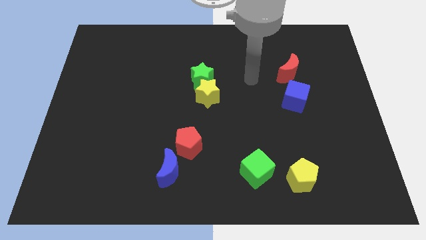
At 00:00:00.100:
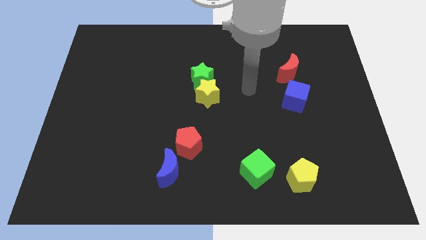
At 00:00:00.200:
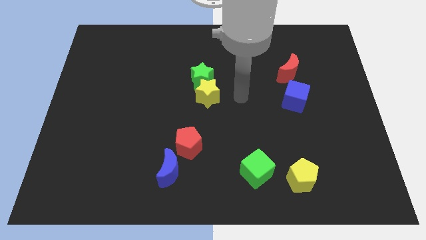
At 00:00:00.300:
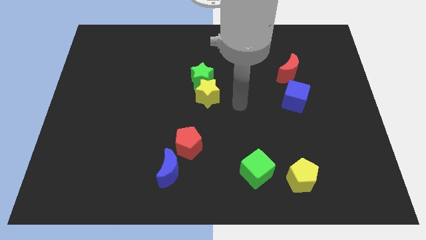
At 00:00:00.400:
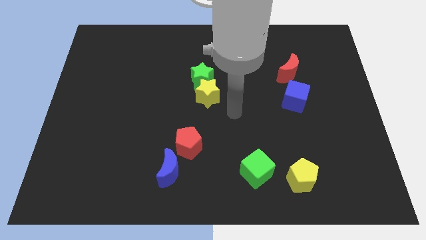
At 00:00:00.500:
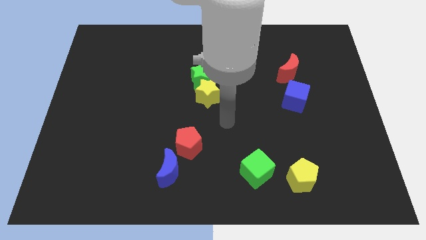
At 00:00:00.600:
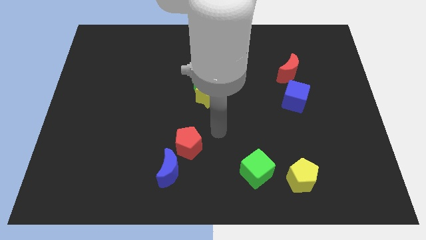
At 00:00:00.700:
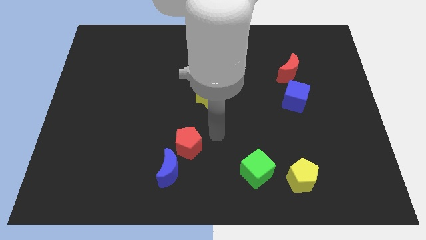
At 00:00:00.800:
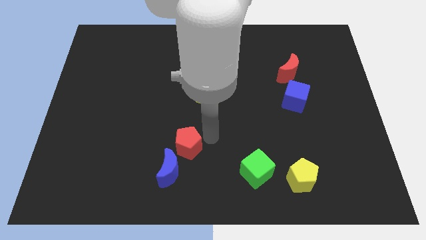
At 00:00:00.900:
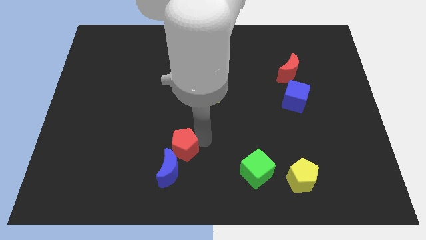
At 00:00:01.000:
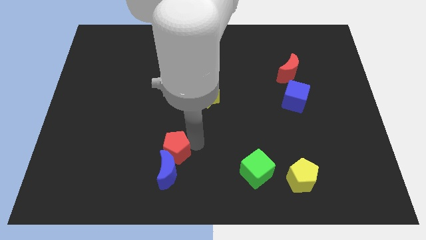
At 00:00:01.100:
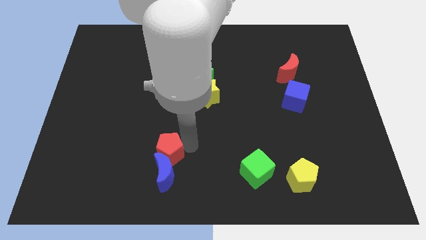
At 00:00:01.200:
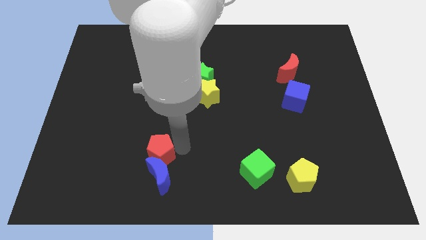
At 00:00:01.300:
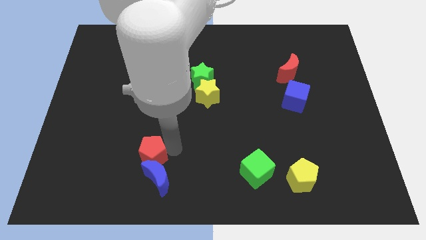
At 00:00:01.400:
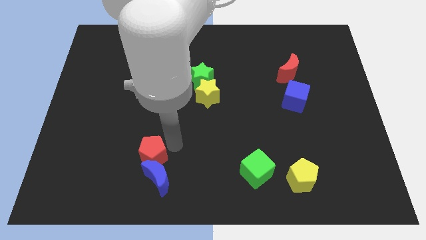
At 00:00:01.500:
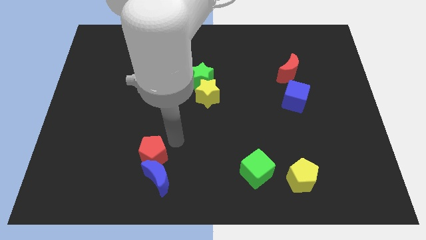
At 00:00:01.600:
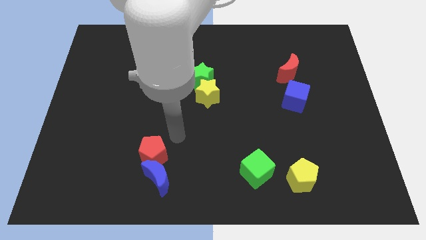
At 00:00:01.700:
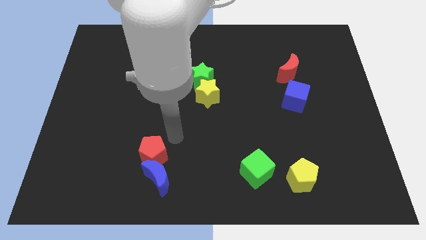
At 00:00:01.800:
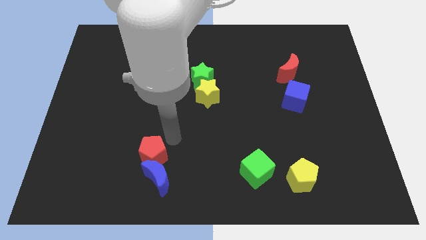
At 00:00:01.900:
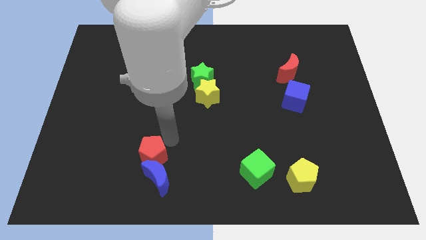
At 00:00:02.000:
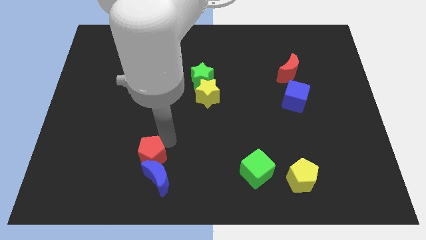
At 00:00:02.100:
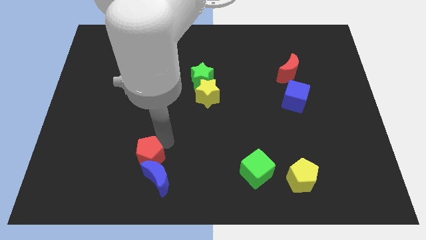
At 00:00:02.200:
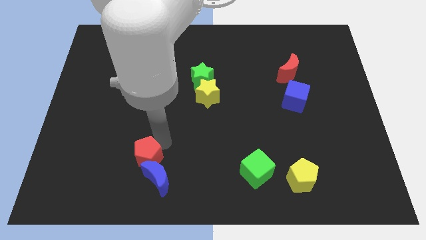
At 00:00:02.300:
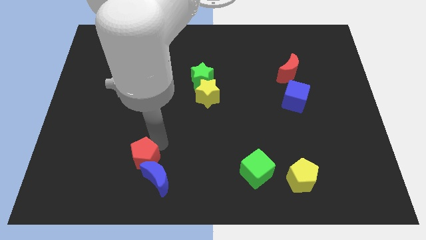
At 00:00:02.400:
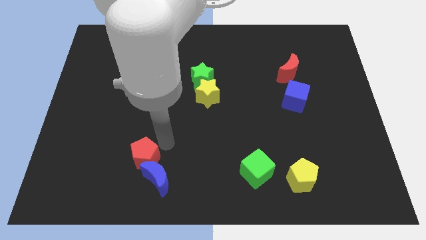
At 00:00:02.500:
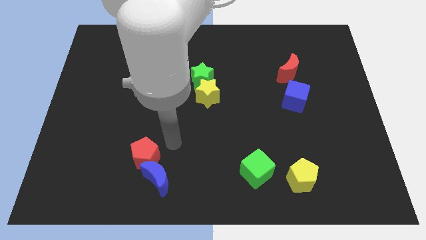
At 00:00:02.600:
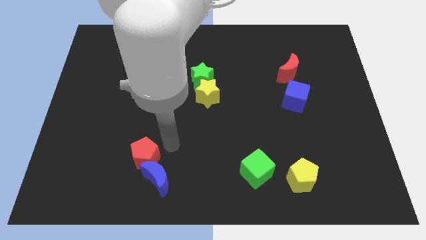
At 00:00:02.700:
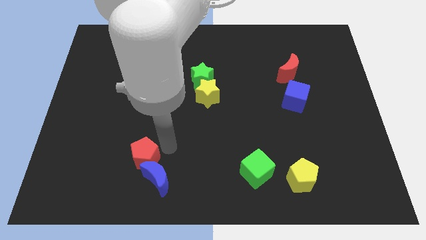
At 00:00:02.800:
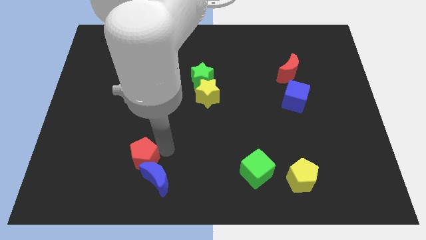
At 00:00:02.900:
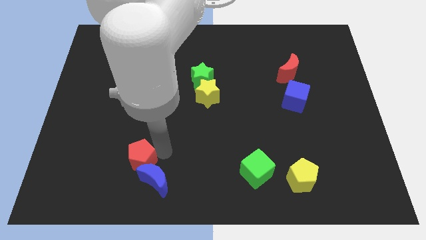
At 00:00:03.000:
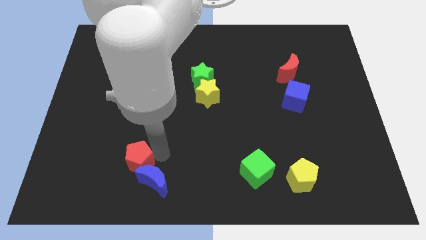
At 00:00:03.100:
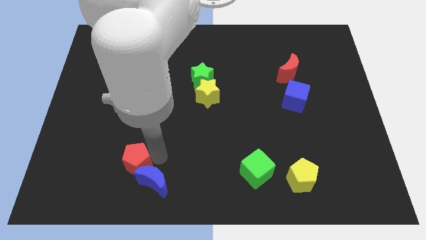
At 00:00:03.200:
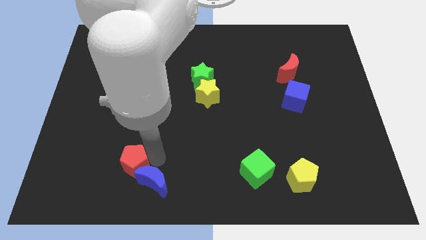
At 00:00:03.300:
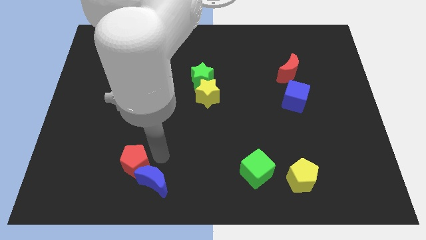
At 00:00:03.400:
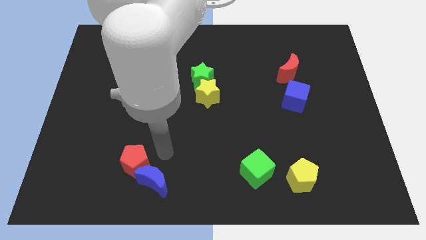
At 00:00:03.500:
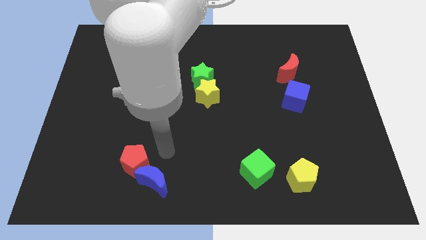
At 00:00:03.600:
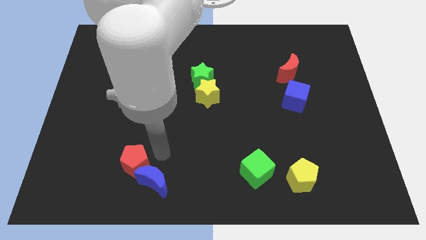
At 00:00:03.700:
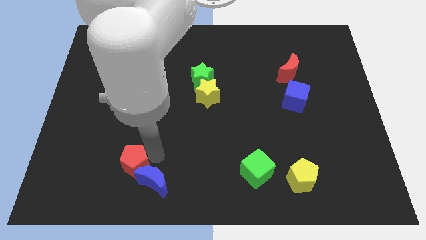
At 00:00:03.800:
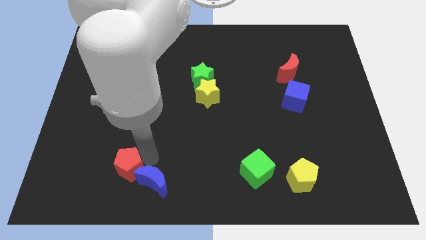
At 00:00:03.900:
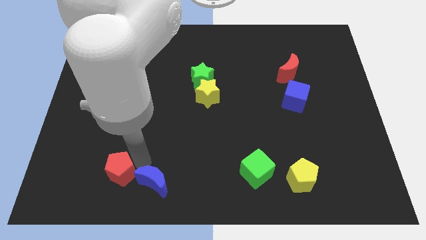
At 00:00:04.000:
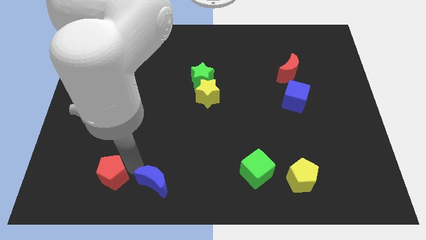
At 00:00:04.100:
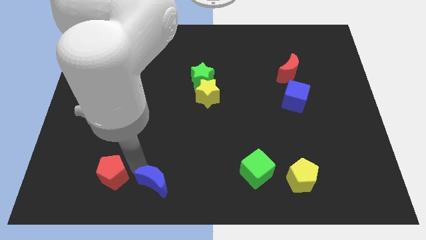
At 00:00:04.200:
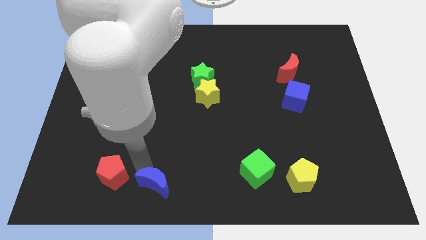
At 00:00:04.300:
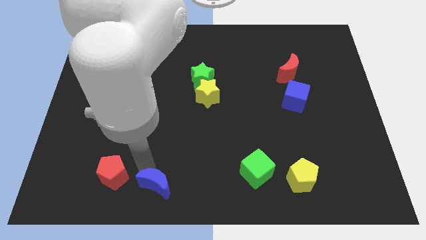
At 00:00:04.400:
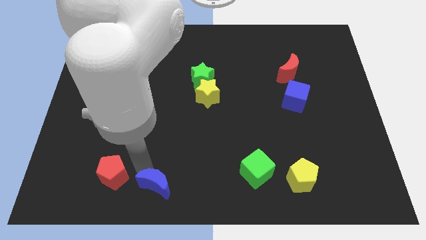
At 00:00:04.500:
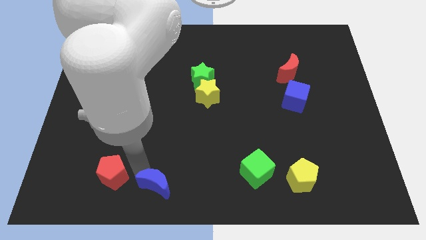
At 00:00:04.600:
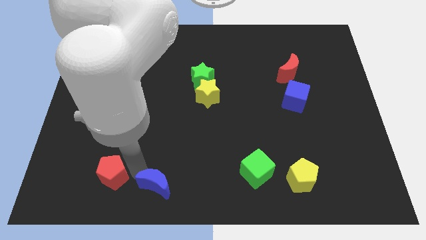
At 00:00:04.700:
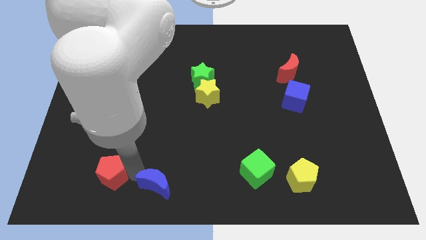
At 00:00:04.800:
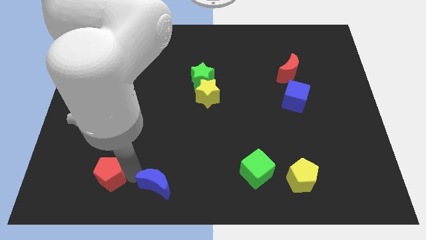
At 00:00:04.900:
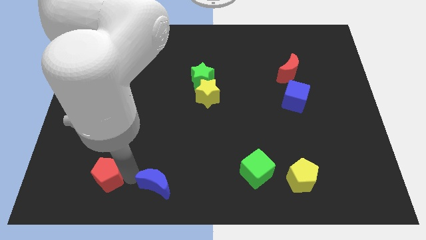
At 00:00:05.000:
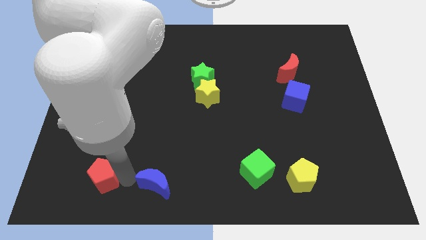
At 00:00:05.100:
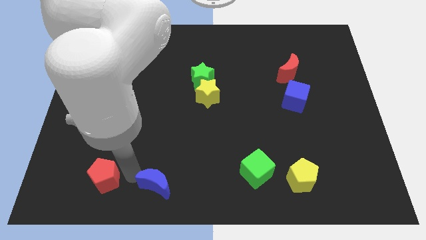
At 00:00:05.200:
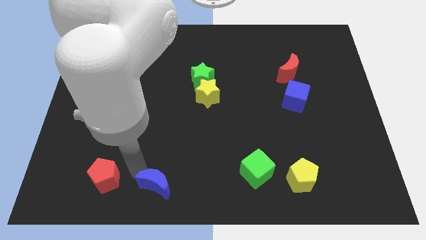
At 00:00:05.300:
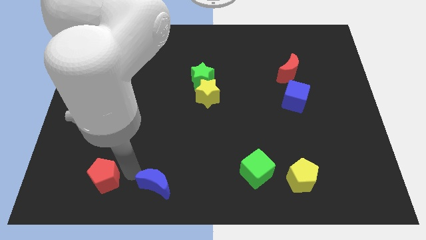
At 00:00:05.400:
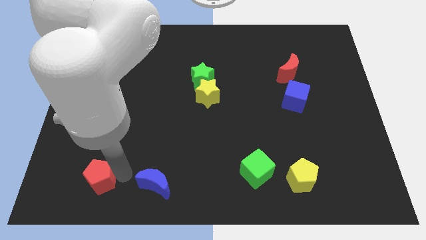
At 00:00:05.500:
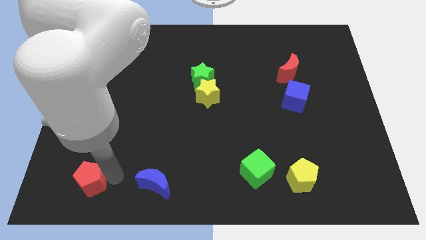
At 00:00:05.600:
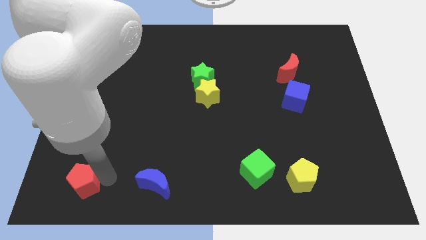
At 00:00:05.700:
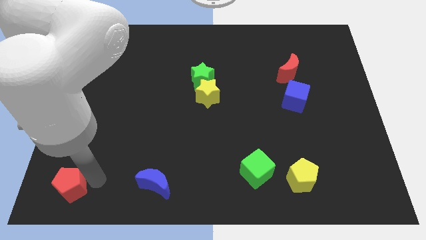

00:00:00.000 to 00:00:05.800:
slide the red pentagon to the bottom left corner
